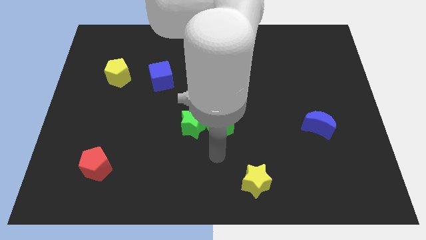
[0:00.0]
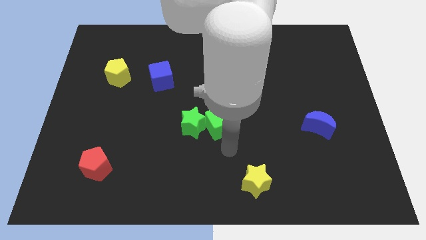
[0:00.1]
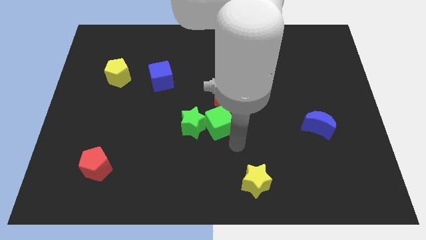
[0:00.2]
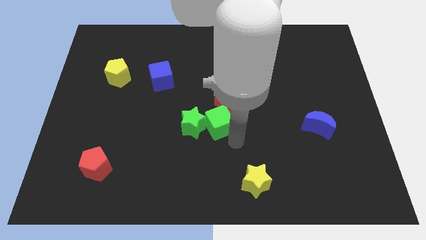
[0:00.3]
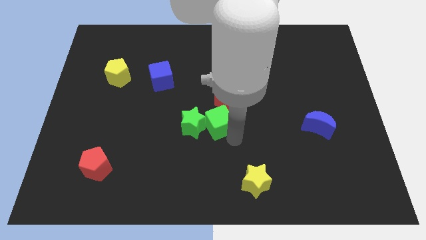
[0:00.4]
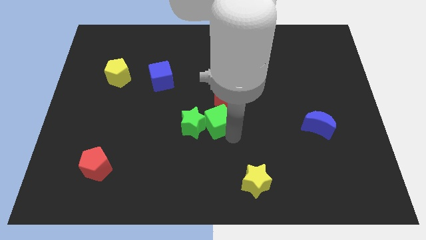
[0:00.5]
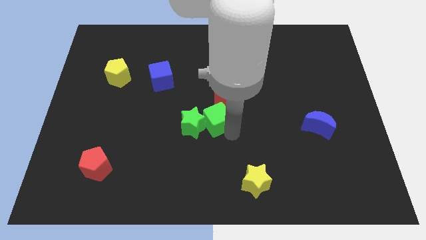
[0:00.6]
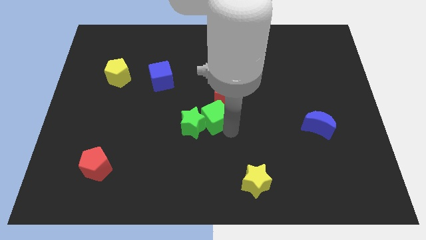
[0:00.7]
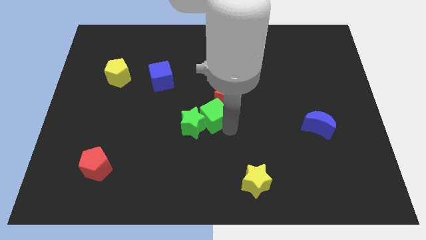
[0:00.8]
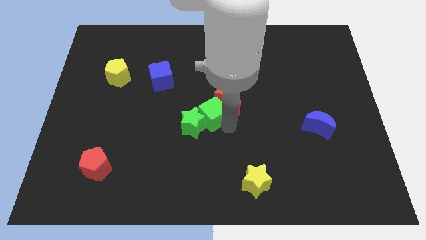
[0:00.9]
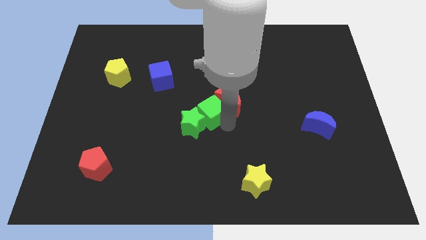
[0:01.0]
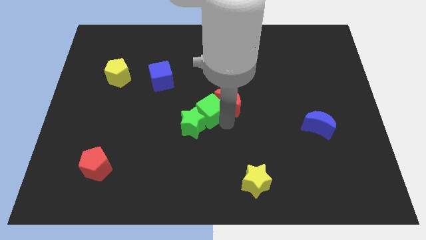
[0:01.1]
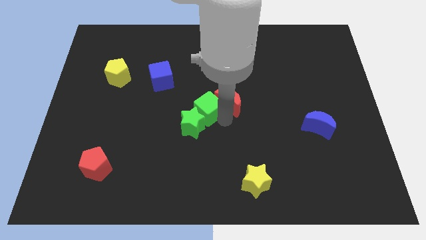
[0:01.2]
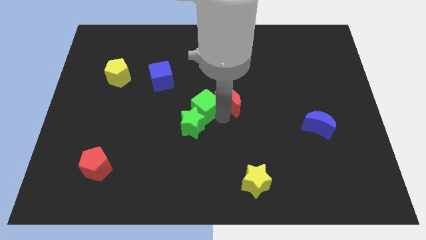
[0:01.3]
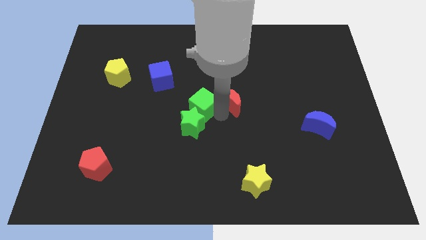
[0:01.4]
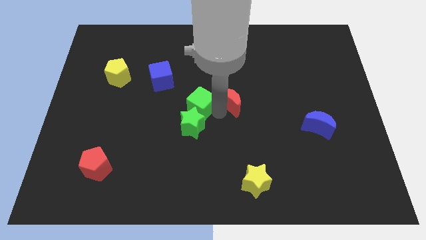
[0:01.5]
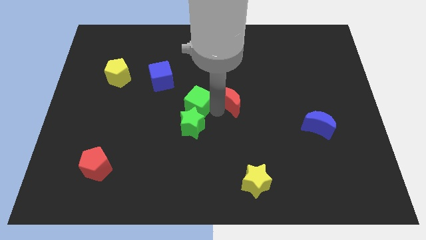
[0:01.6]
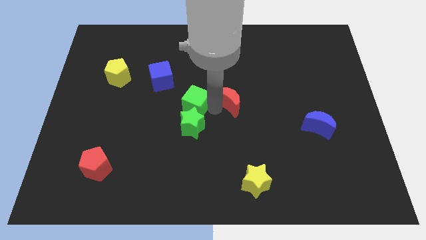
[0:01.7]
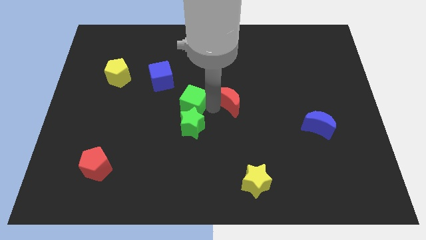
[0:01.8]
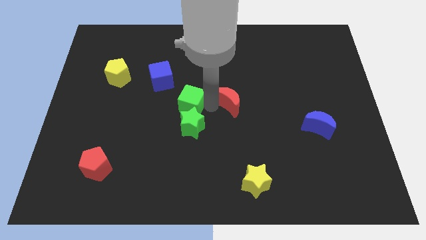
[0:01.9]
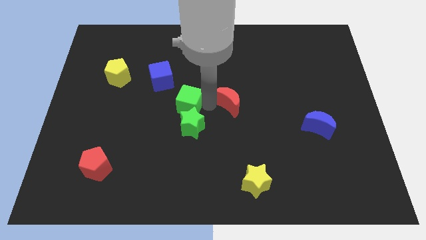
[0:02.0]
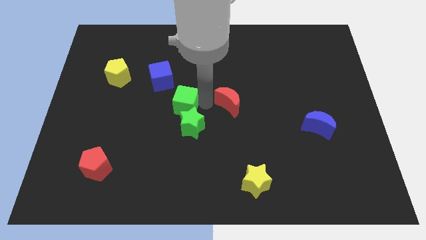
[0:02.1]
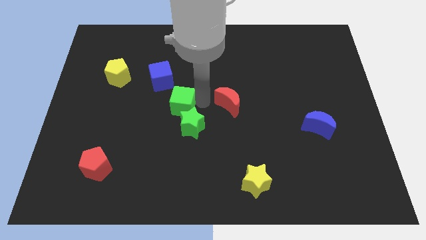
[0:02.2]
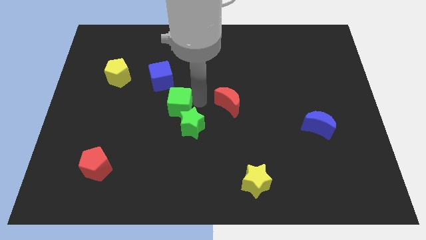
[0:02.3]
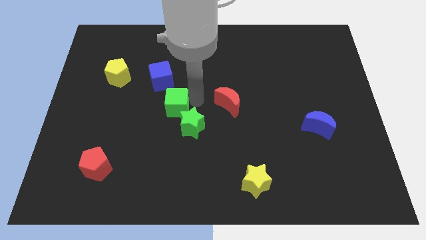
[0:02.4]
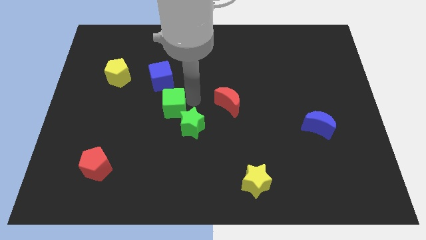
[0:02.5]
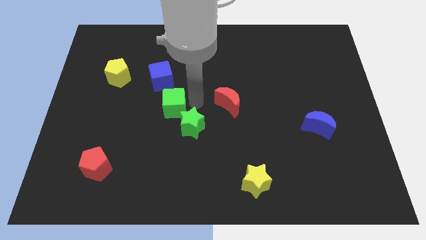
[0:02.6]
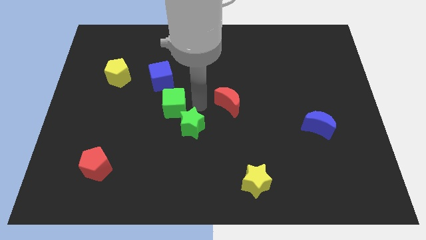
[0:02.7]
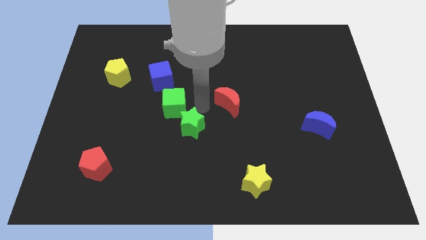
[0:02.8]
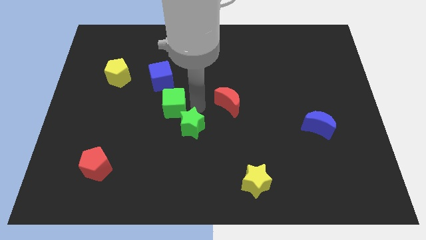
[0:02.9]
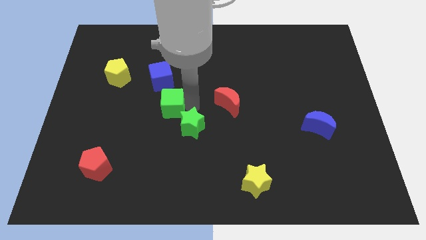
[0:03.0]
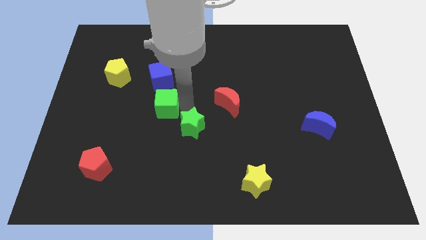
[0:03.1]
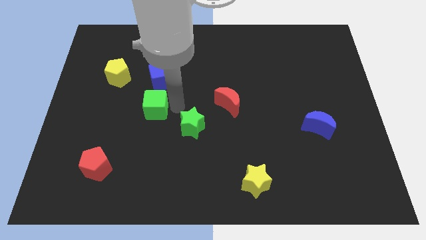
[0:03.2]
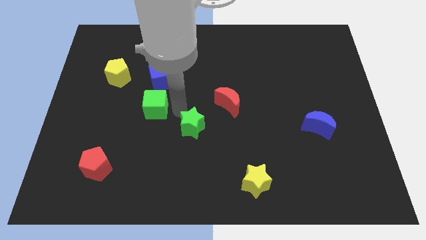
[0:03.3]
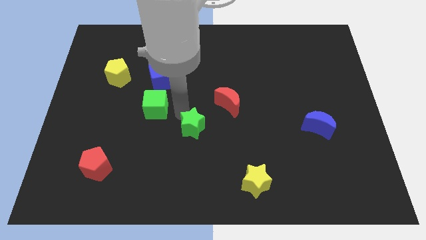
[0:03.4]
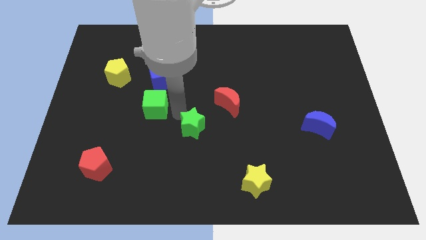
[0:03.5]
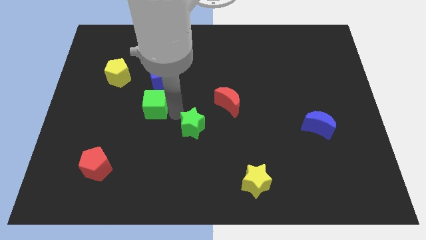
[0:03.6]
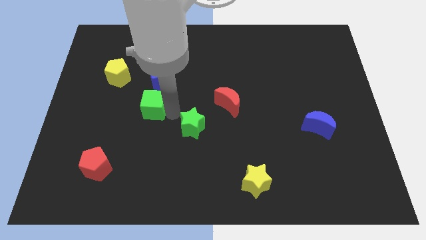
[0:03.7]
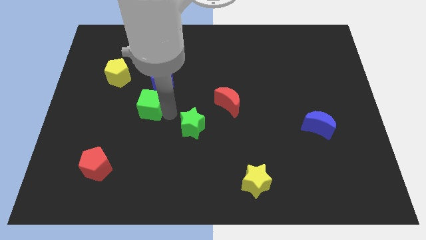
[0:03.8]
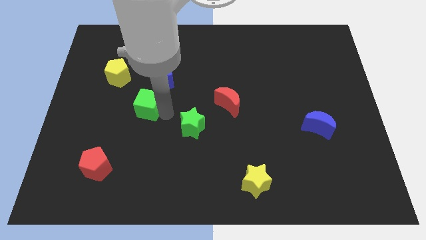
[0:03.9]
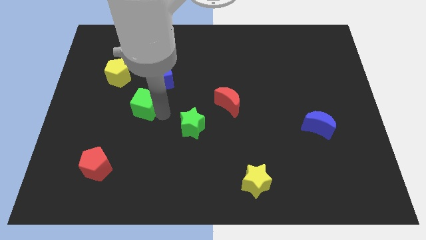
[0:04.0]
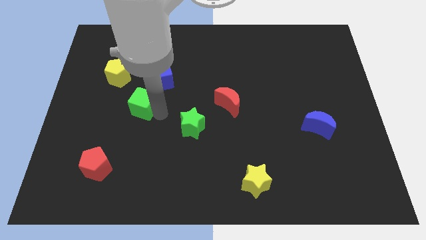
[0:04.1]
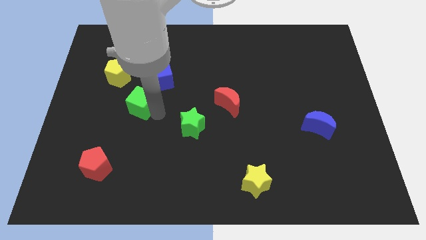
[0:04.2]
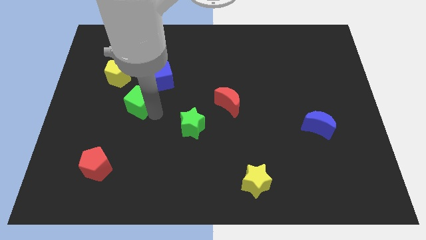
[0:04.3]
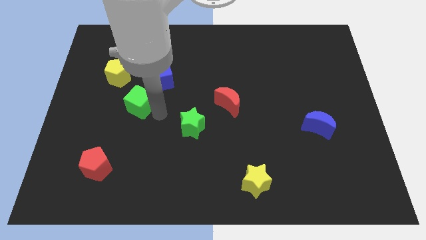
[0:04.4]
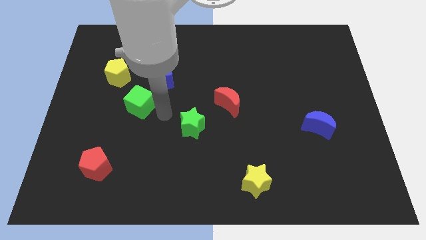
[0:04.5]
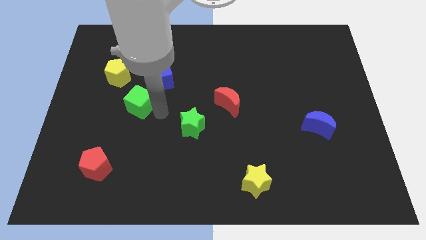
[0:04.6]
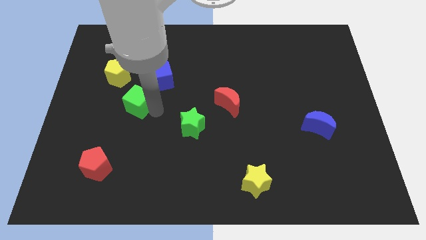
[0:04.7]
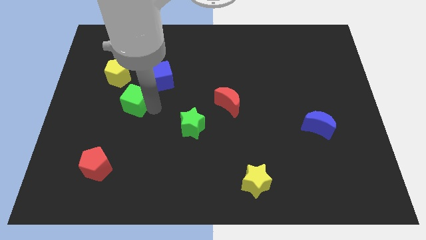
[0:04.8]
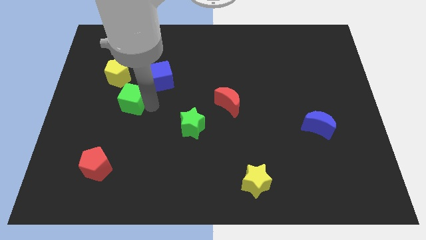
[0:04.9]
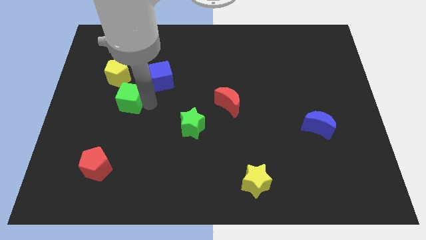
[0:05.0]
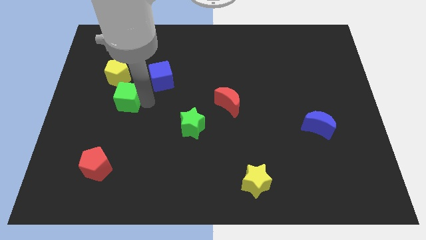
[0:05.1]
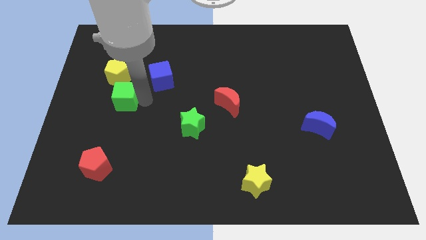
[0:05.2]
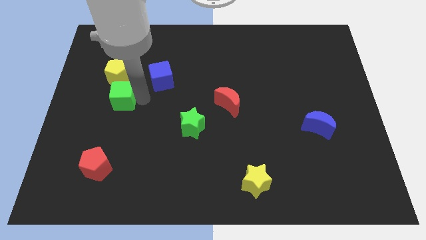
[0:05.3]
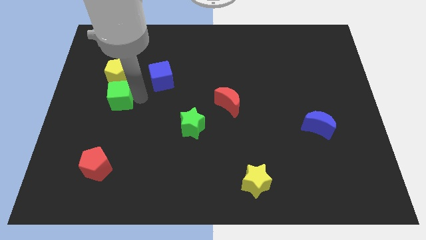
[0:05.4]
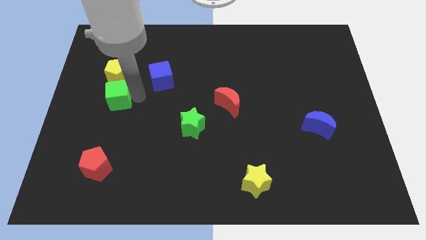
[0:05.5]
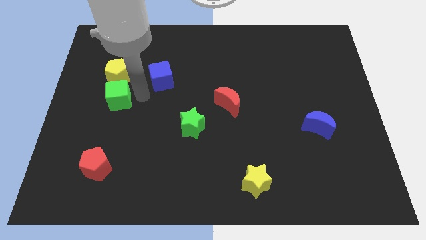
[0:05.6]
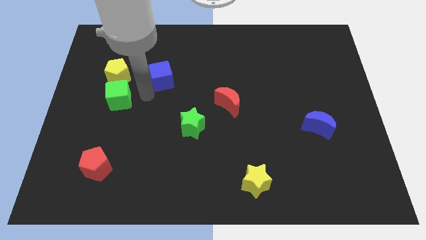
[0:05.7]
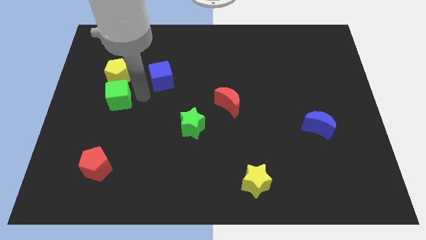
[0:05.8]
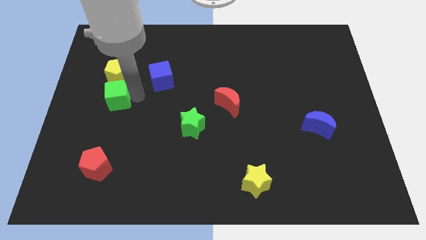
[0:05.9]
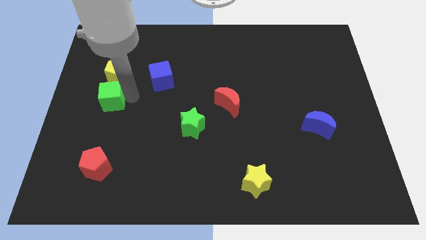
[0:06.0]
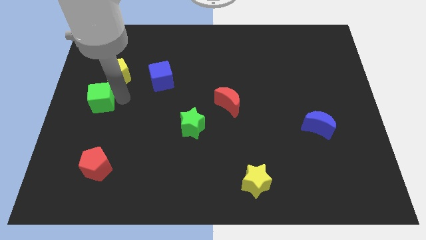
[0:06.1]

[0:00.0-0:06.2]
push the green cube to the left side of the board

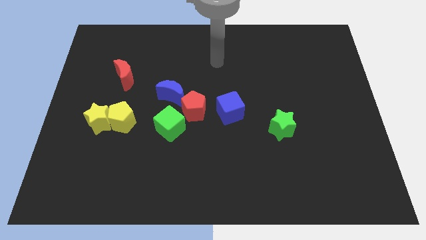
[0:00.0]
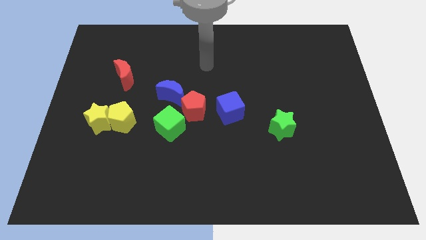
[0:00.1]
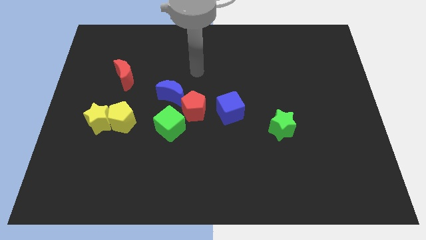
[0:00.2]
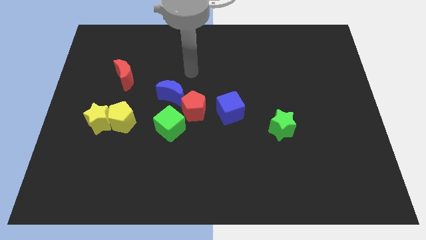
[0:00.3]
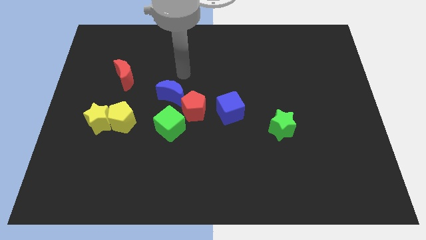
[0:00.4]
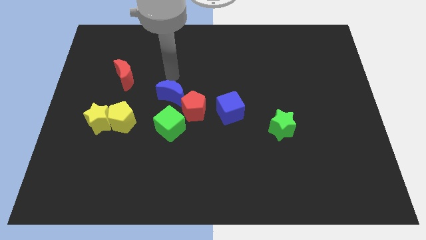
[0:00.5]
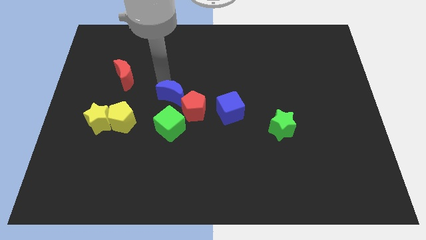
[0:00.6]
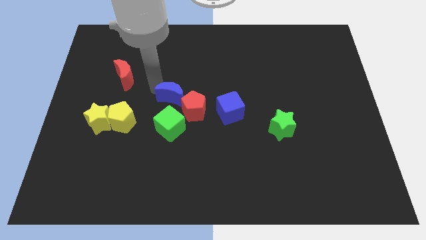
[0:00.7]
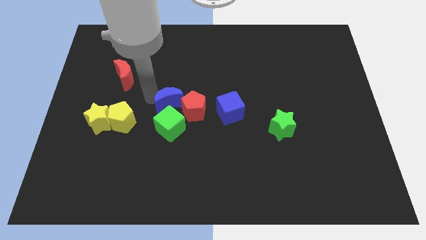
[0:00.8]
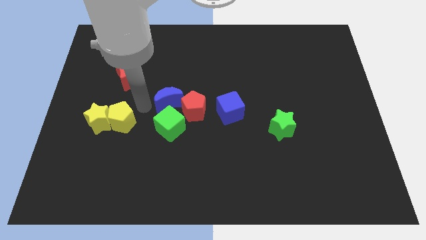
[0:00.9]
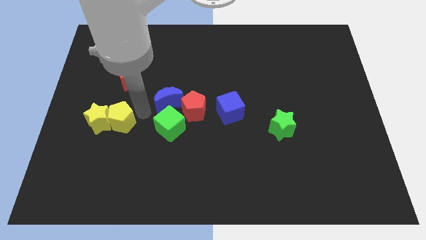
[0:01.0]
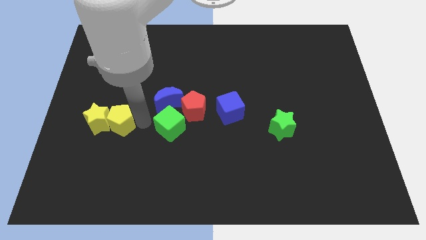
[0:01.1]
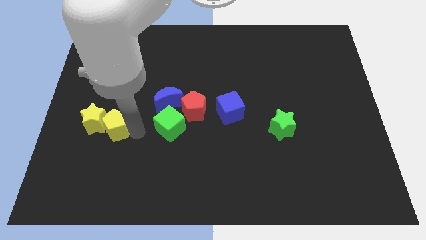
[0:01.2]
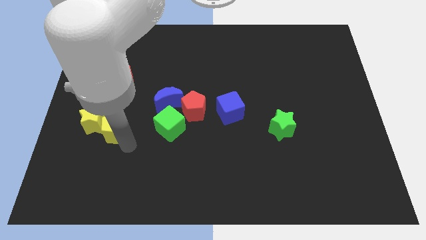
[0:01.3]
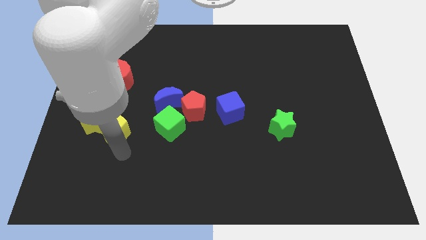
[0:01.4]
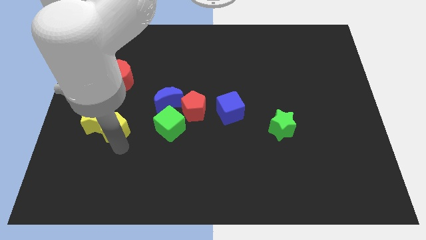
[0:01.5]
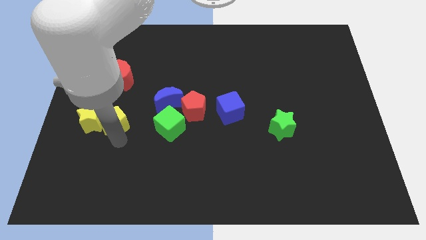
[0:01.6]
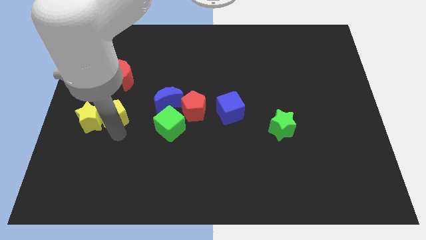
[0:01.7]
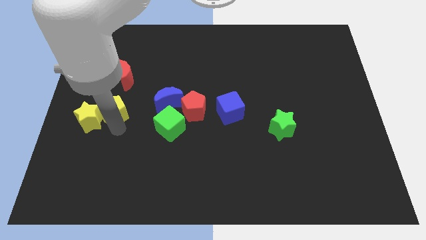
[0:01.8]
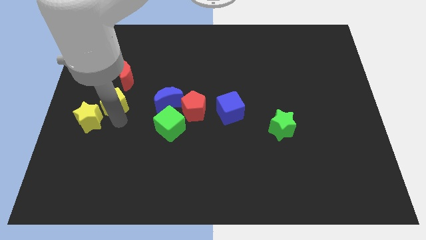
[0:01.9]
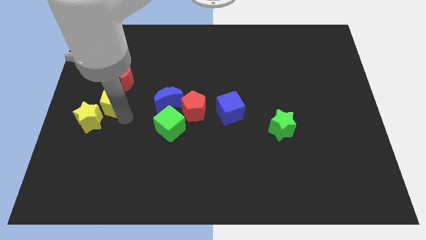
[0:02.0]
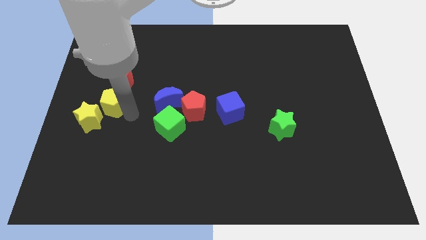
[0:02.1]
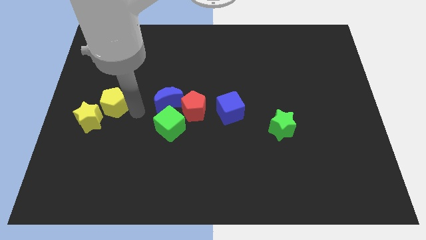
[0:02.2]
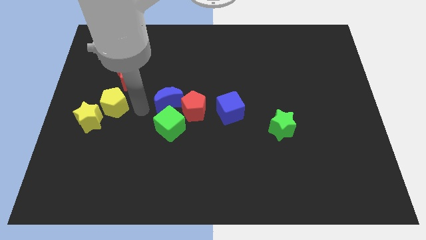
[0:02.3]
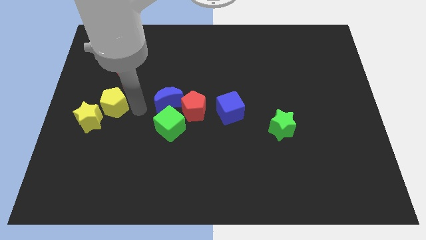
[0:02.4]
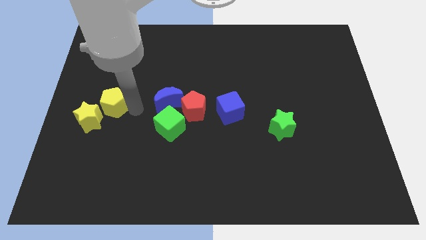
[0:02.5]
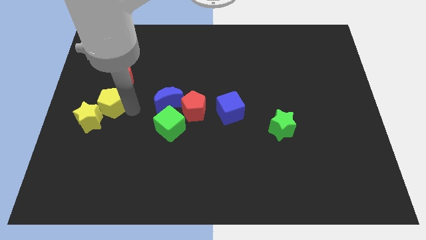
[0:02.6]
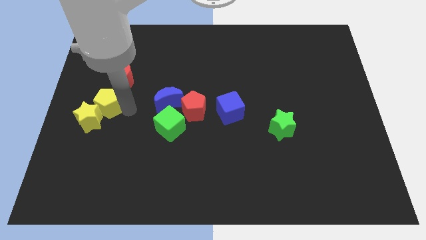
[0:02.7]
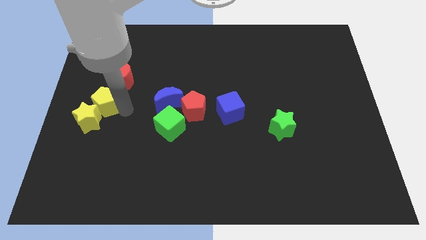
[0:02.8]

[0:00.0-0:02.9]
push the yellow pentagon to the center left
